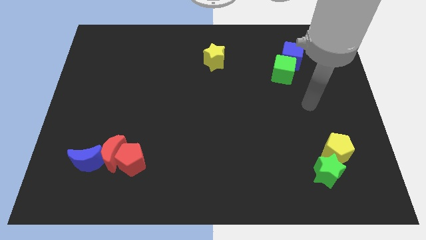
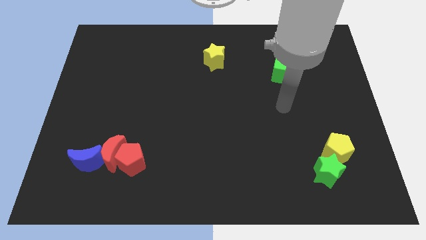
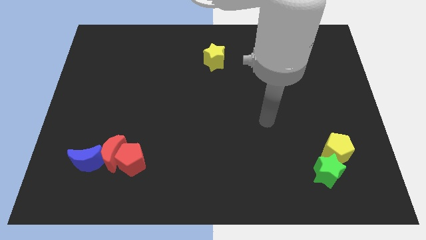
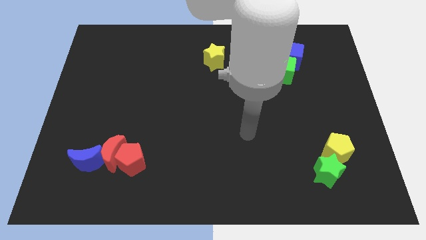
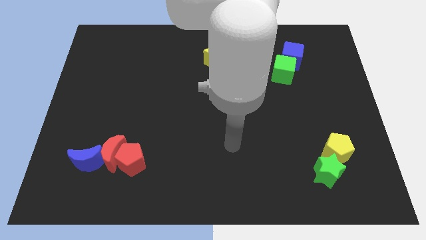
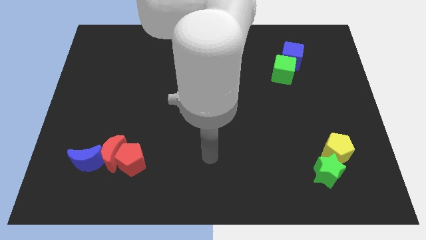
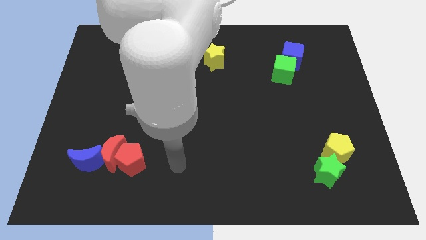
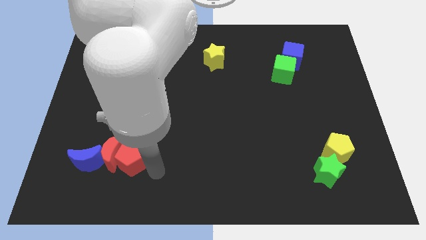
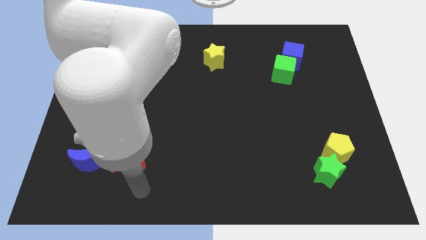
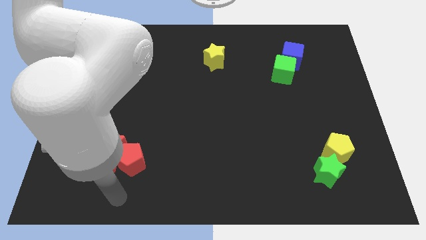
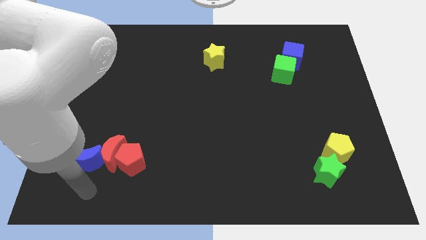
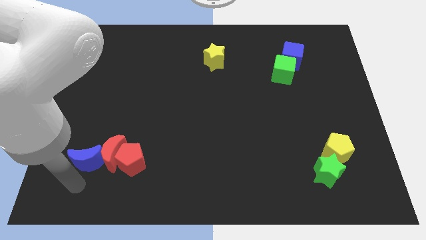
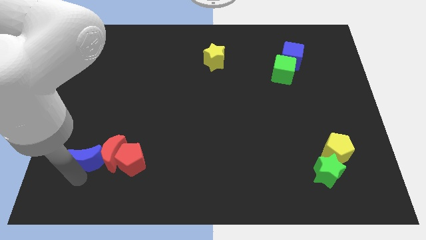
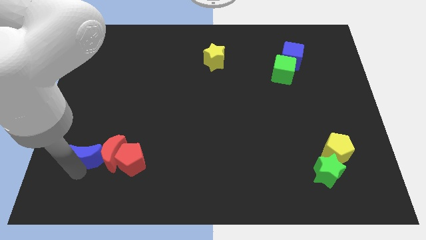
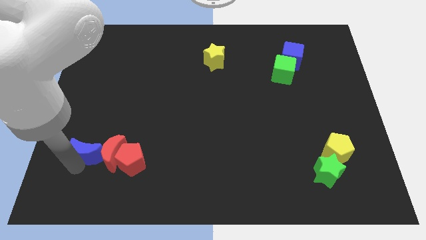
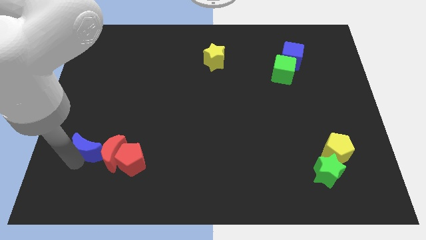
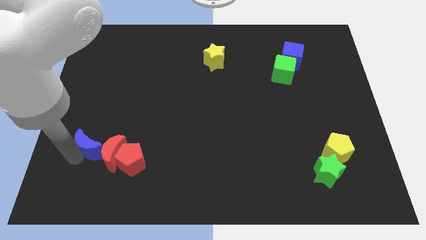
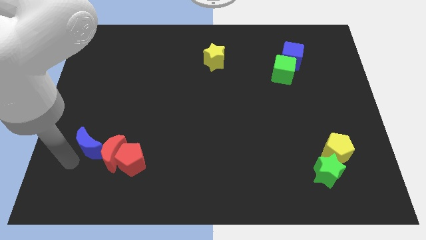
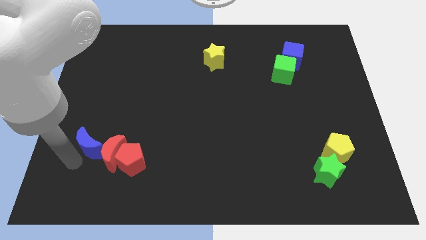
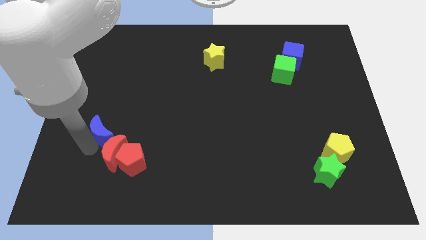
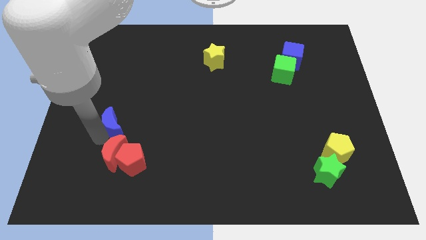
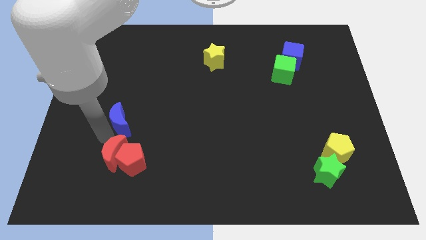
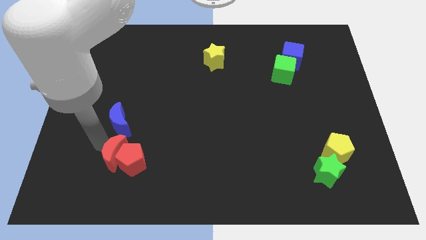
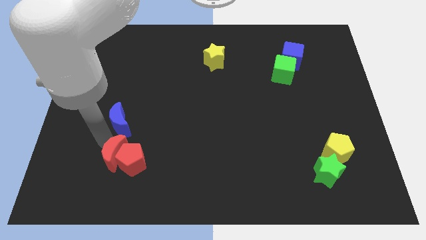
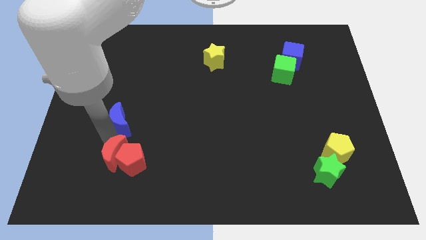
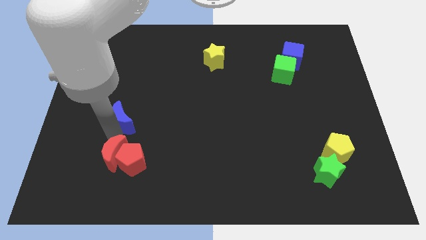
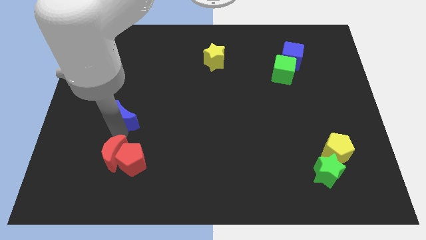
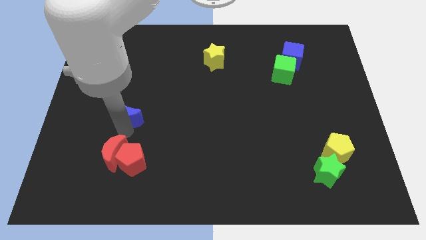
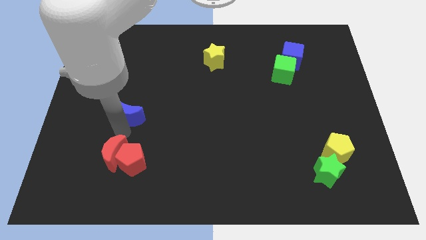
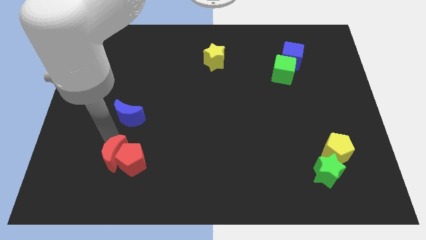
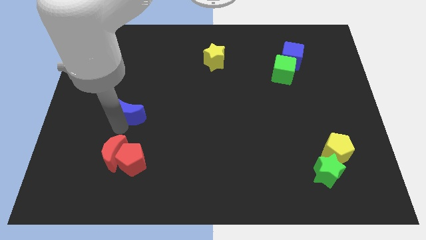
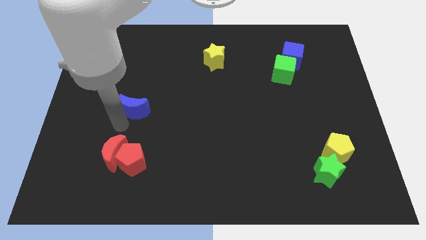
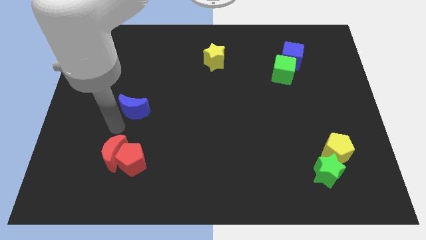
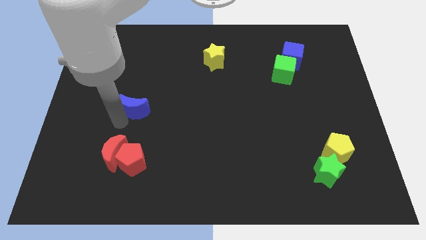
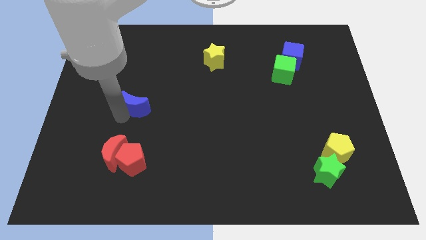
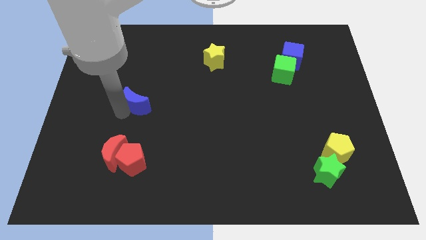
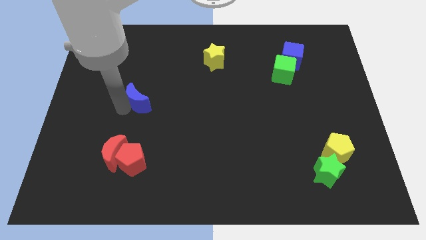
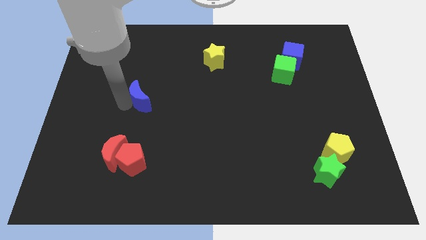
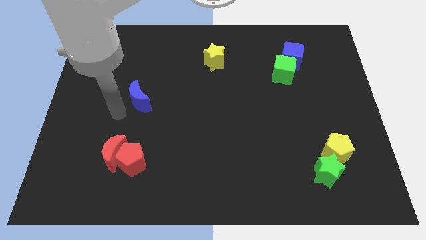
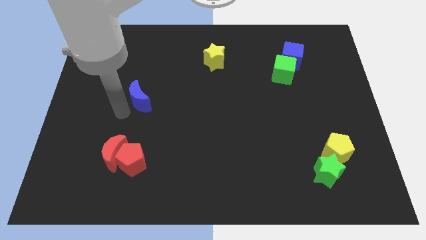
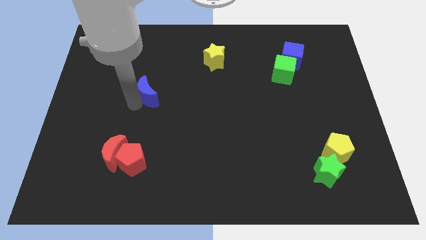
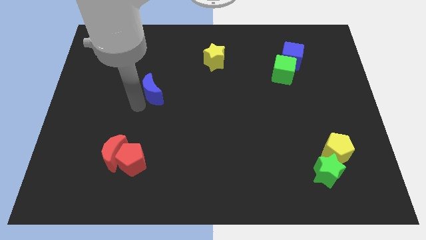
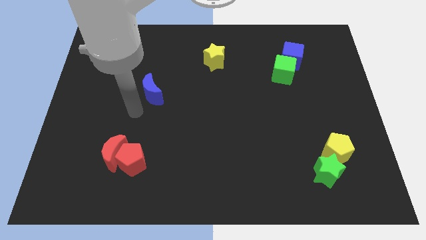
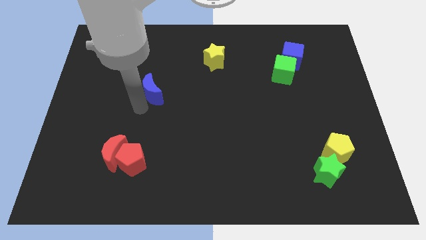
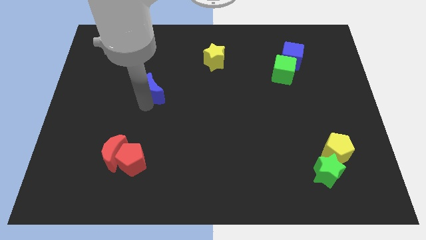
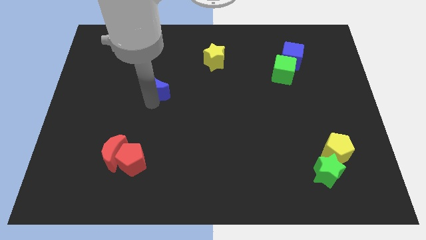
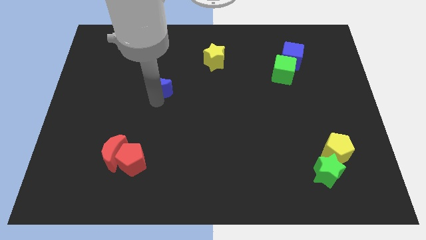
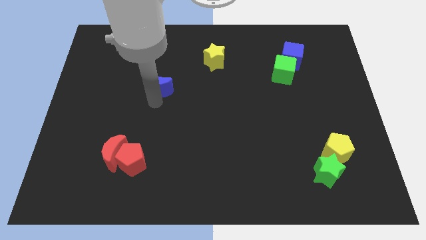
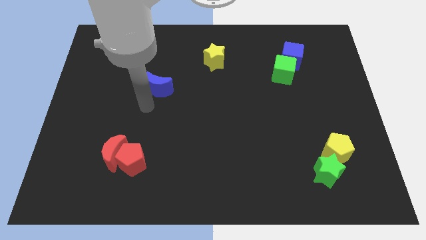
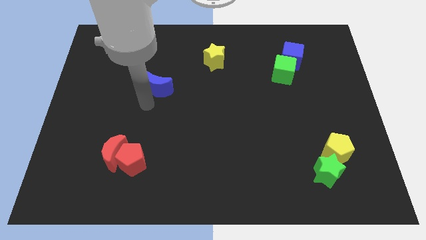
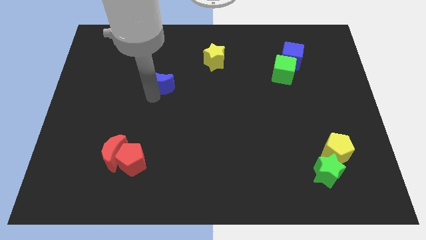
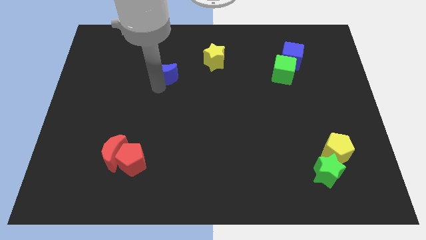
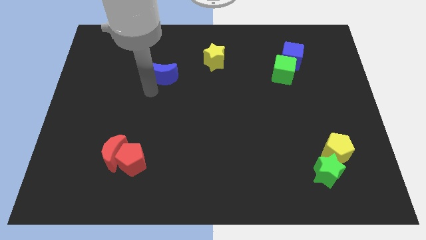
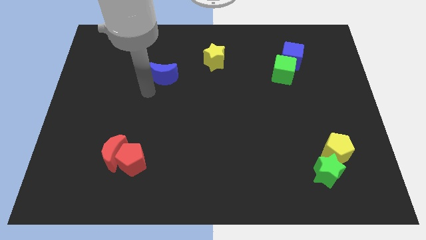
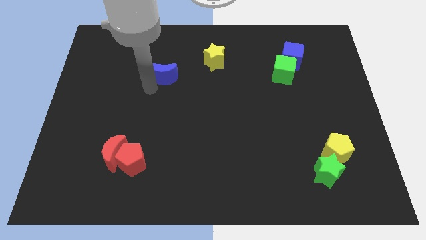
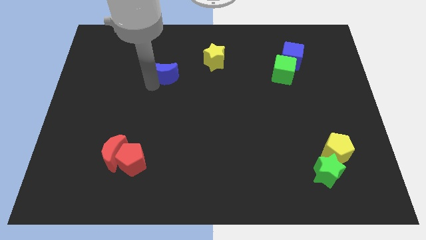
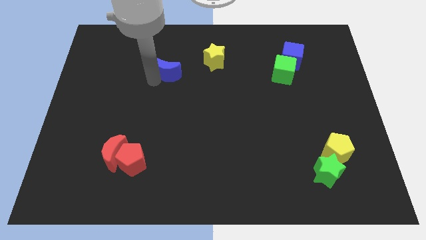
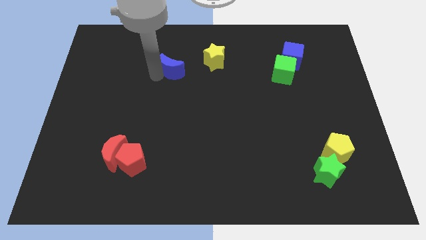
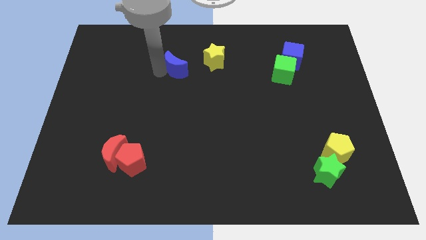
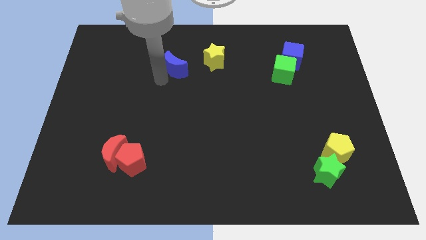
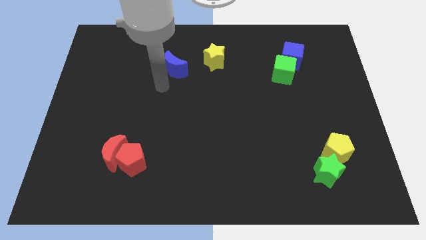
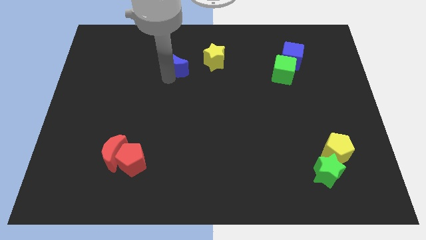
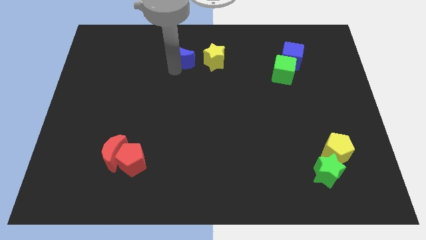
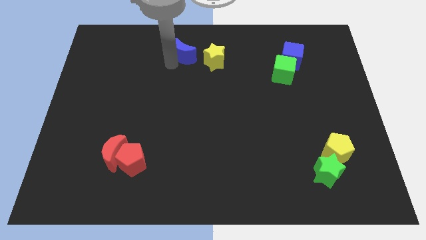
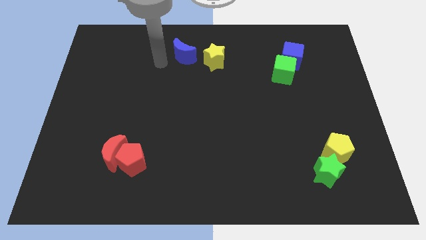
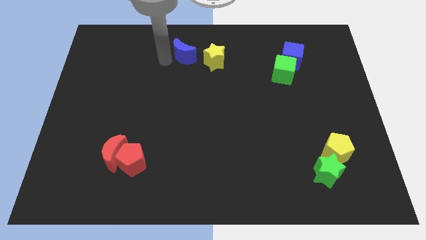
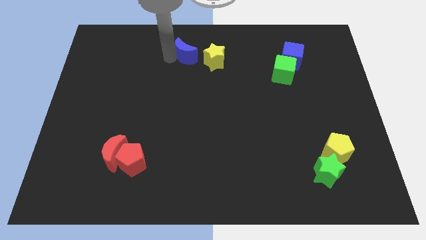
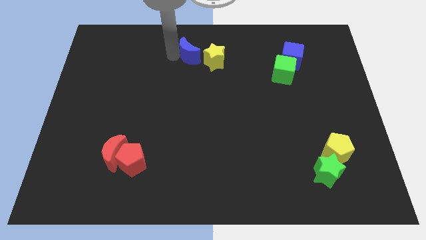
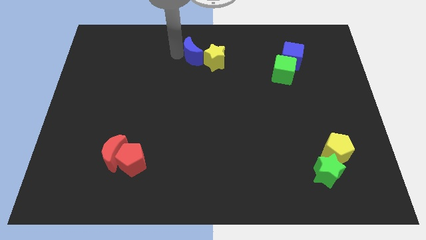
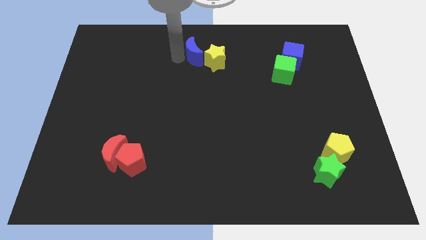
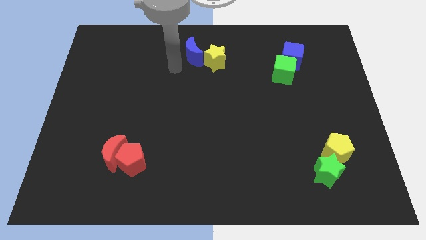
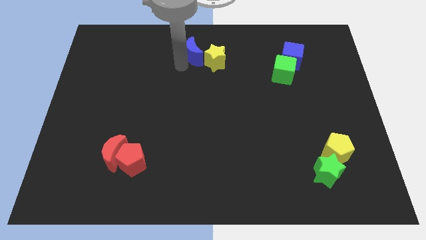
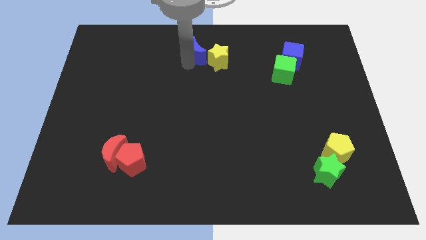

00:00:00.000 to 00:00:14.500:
move the blue moon to the top side
